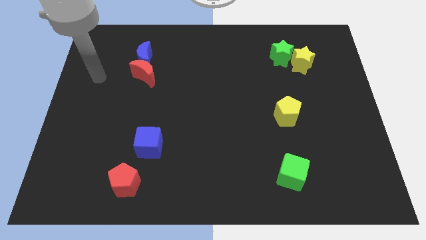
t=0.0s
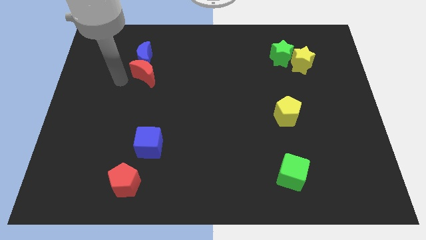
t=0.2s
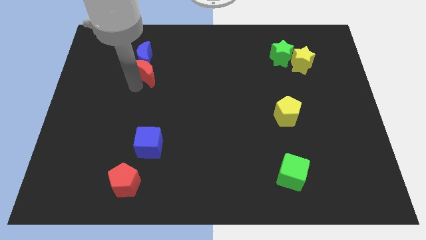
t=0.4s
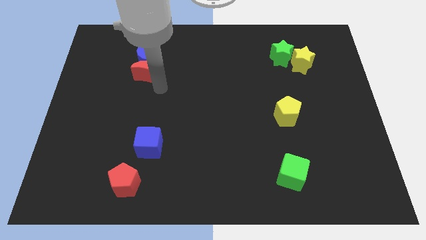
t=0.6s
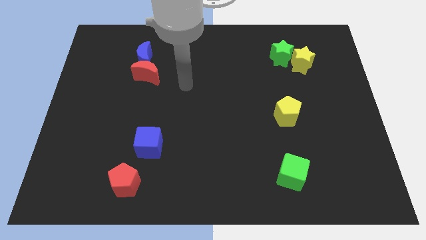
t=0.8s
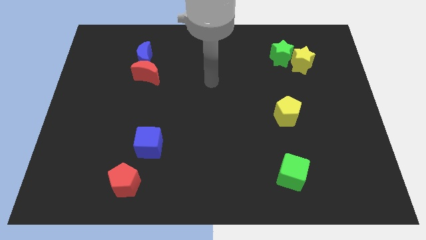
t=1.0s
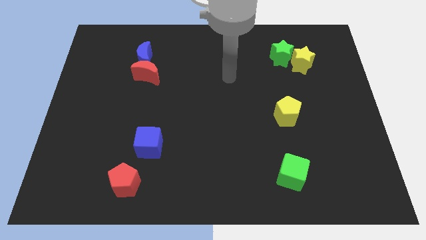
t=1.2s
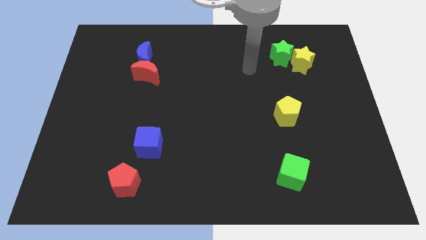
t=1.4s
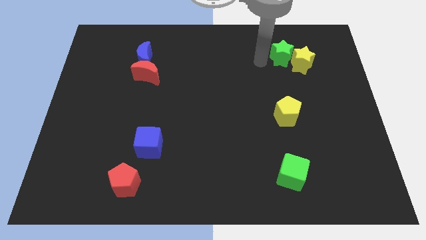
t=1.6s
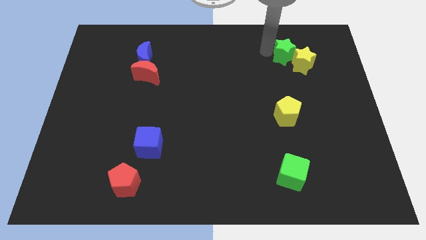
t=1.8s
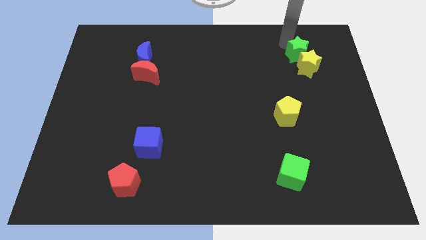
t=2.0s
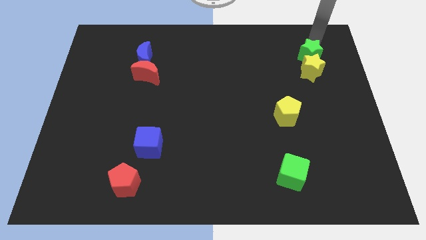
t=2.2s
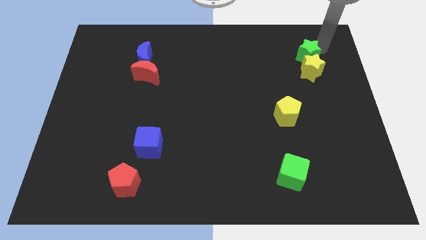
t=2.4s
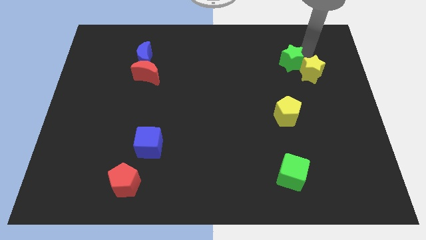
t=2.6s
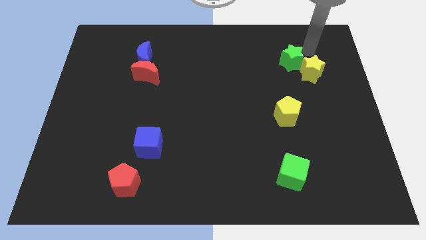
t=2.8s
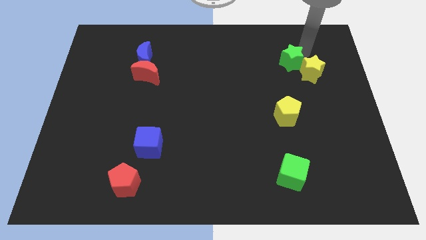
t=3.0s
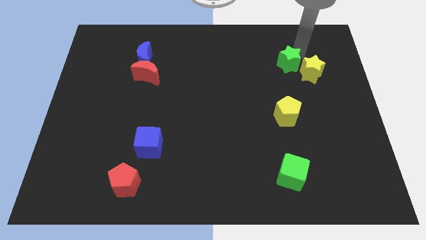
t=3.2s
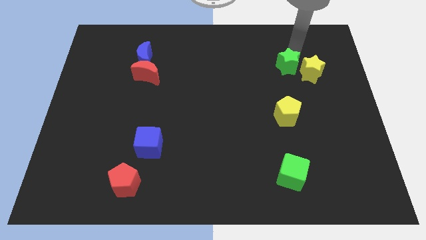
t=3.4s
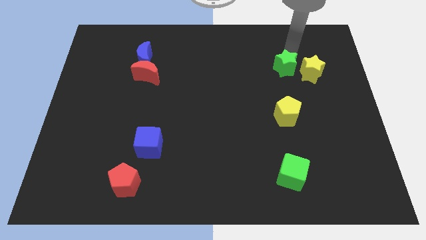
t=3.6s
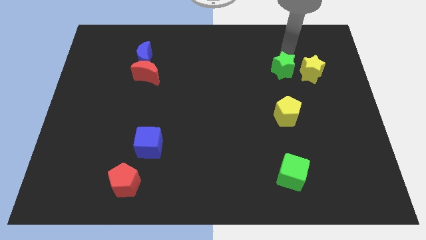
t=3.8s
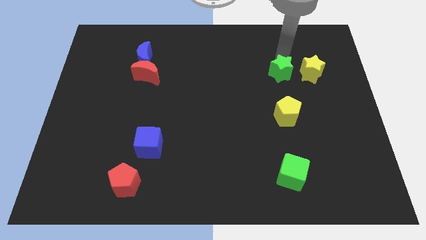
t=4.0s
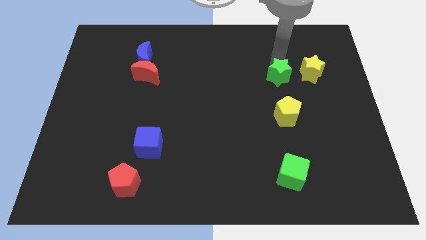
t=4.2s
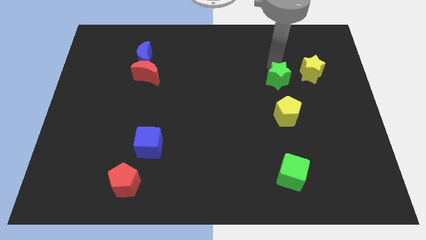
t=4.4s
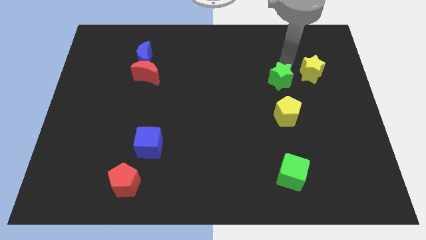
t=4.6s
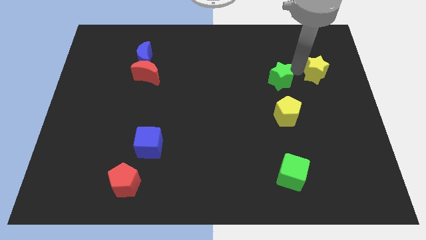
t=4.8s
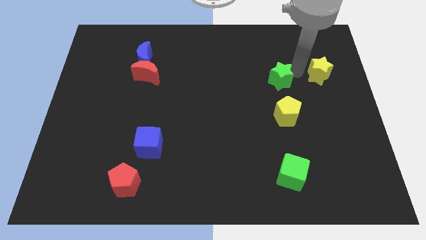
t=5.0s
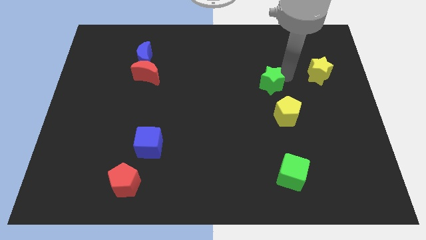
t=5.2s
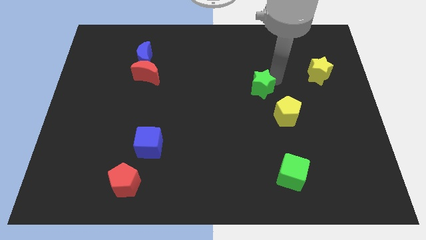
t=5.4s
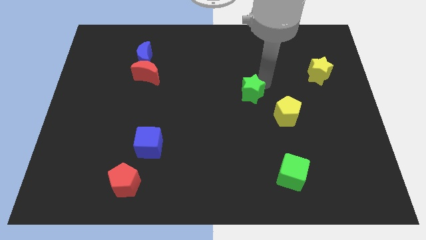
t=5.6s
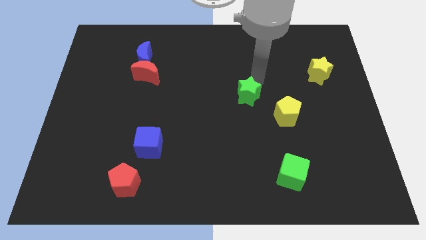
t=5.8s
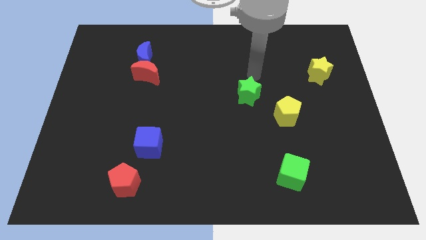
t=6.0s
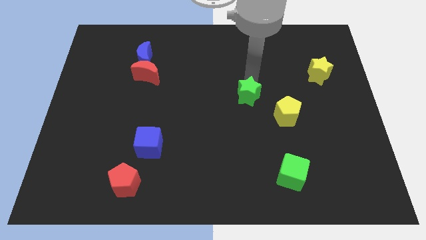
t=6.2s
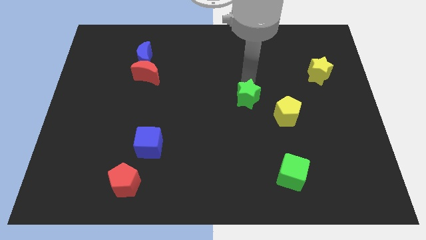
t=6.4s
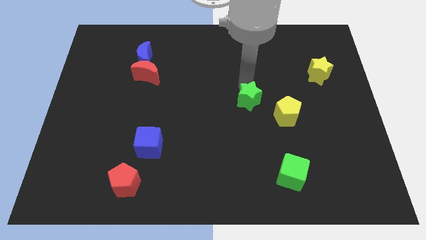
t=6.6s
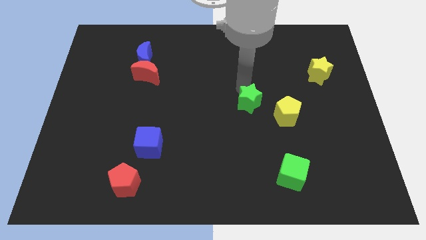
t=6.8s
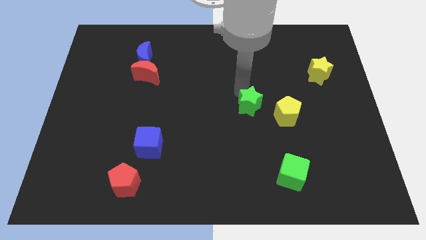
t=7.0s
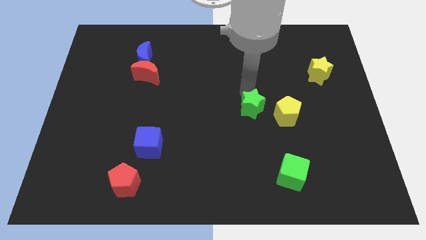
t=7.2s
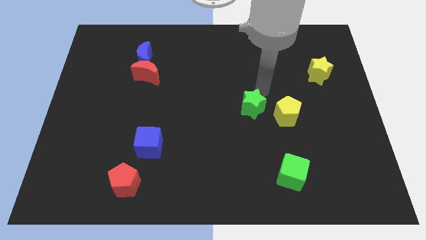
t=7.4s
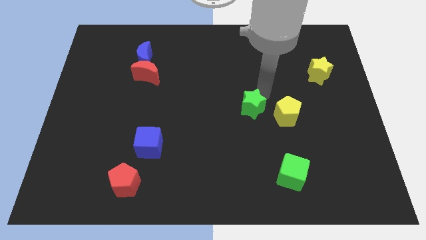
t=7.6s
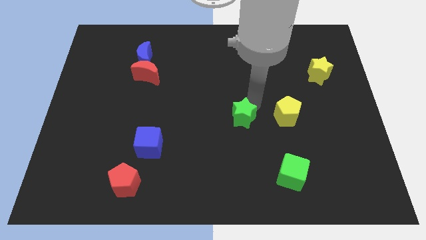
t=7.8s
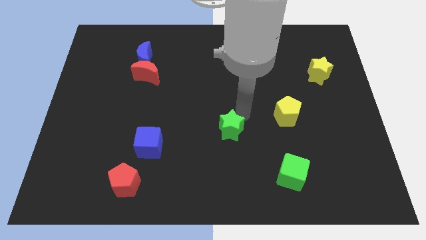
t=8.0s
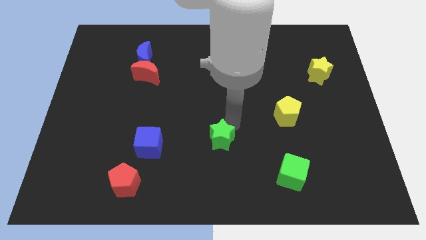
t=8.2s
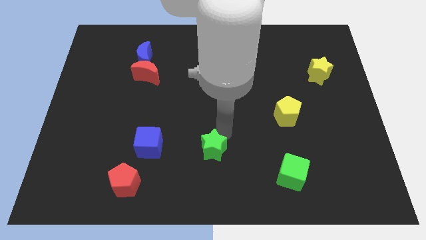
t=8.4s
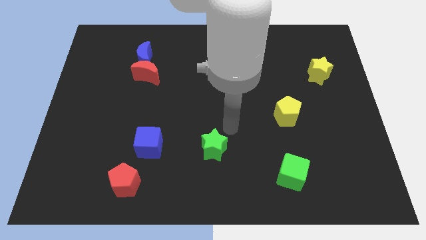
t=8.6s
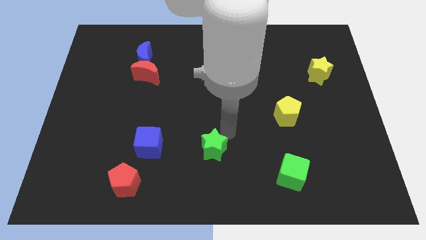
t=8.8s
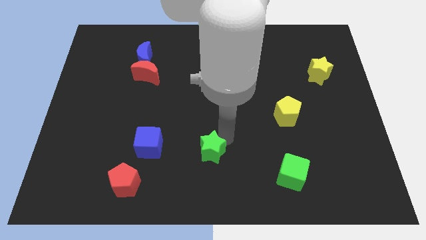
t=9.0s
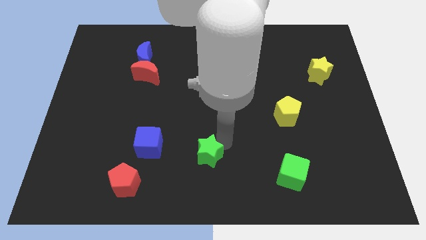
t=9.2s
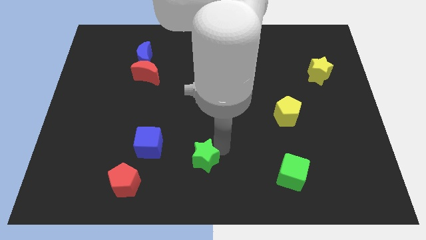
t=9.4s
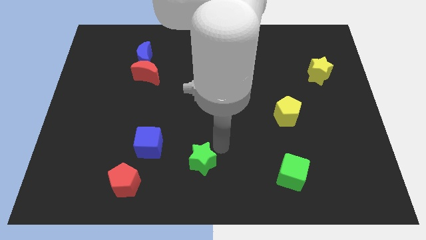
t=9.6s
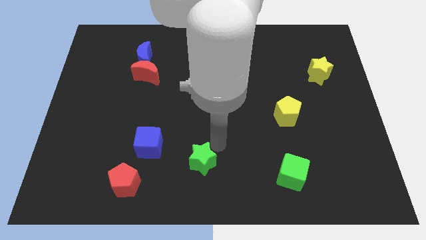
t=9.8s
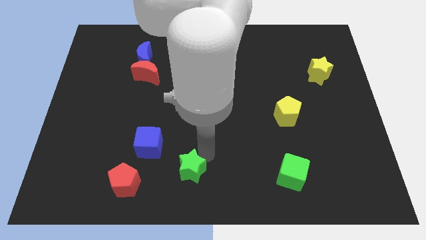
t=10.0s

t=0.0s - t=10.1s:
put the green star to the right side of the red pentagon

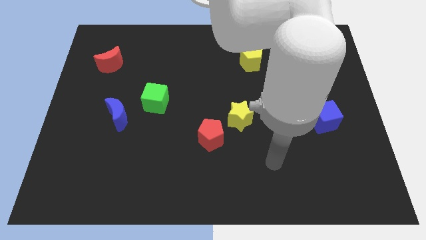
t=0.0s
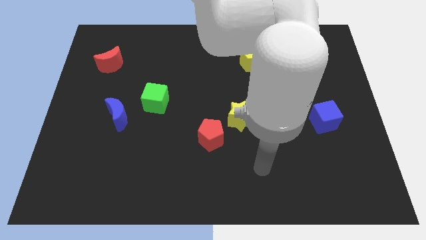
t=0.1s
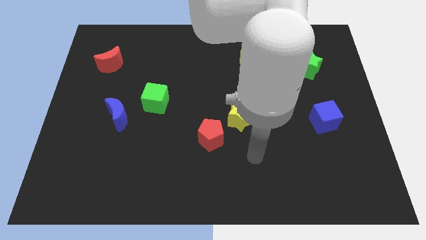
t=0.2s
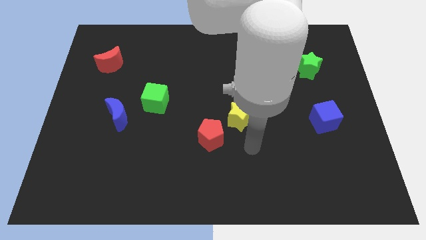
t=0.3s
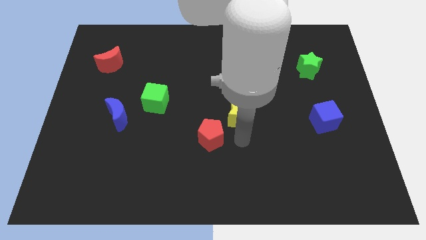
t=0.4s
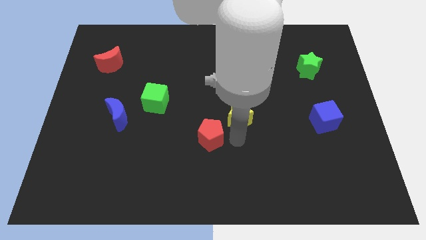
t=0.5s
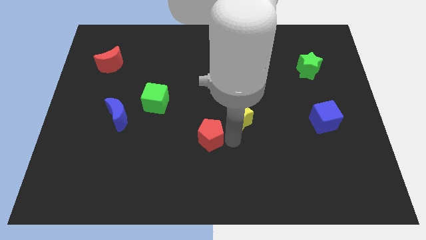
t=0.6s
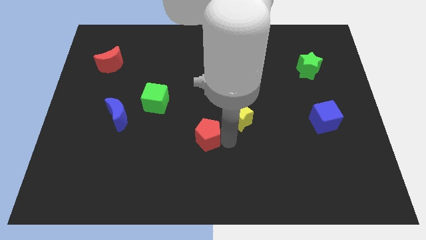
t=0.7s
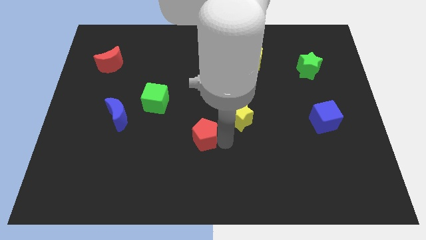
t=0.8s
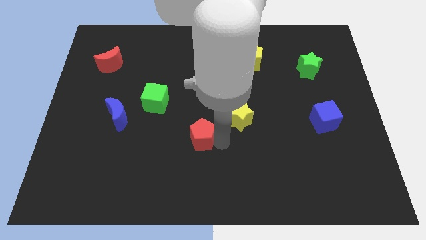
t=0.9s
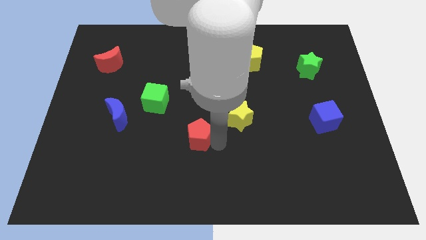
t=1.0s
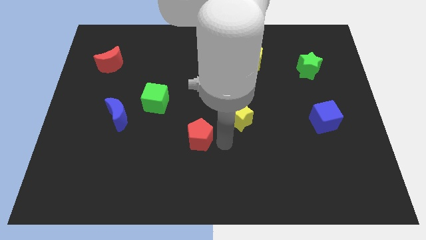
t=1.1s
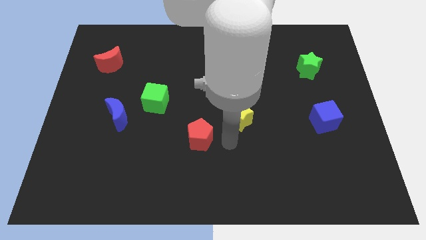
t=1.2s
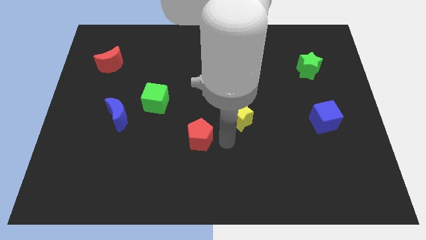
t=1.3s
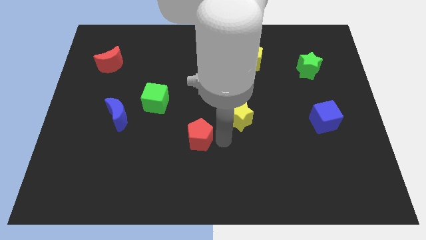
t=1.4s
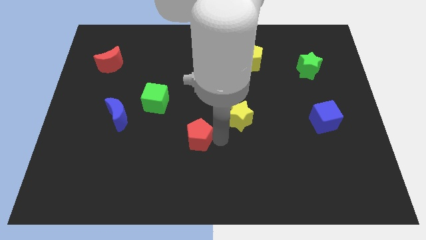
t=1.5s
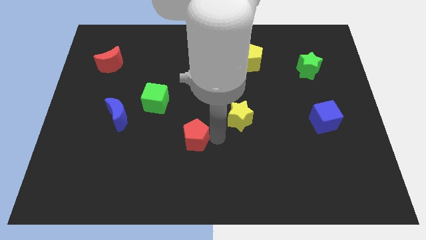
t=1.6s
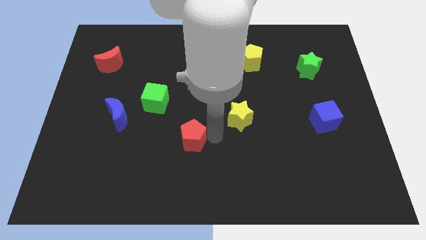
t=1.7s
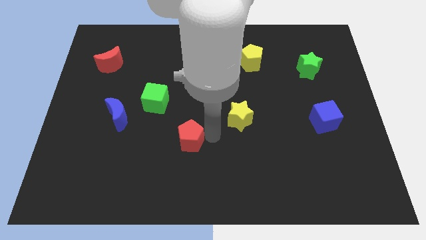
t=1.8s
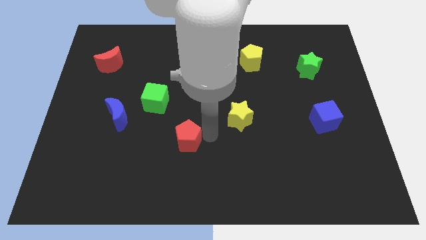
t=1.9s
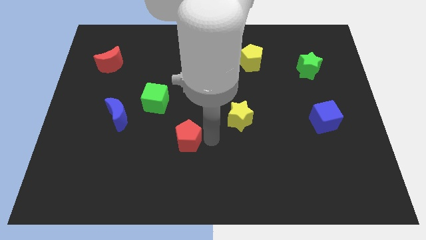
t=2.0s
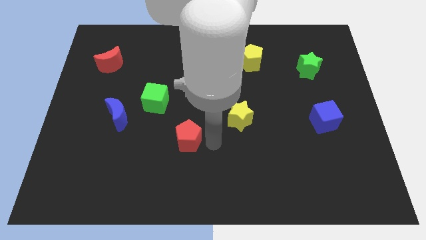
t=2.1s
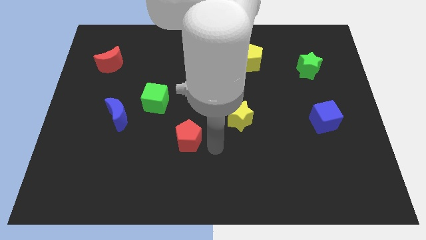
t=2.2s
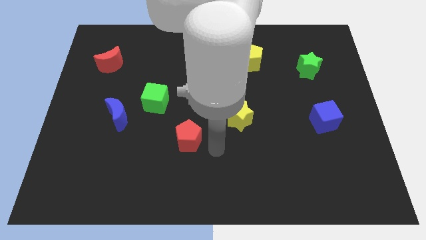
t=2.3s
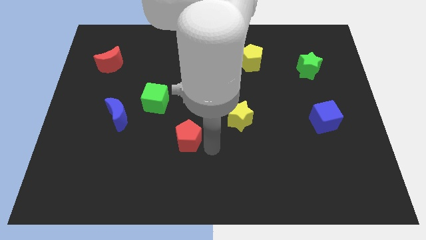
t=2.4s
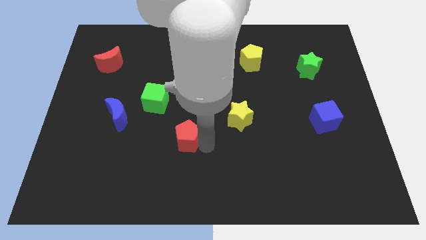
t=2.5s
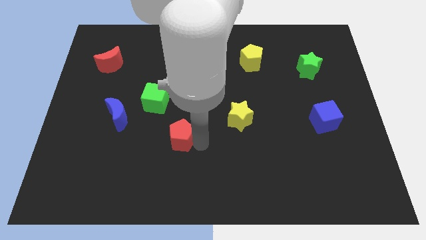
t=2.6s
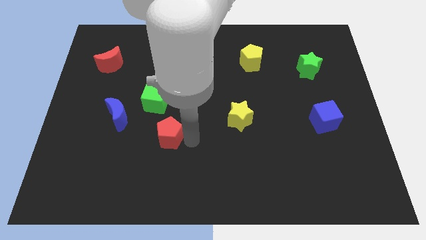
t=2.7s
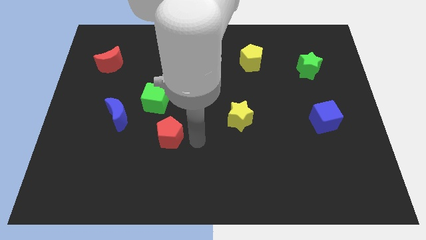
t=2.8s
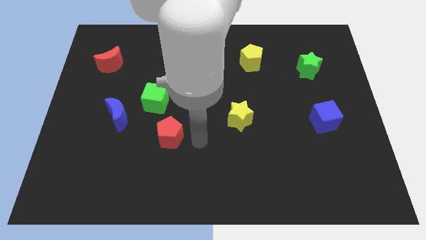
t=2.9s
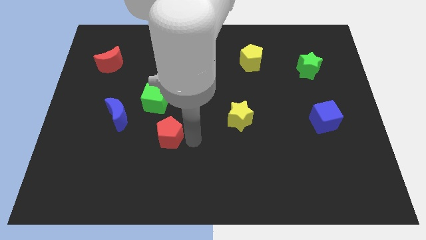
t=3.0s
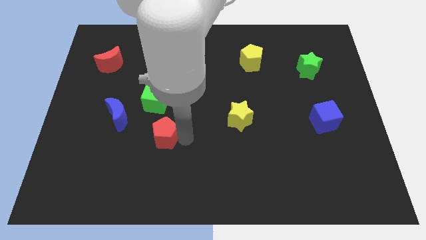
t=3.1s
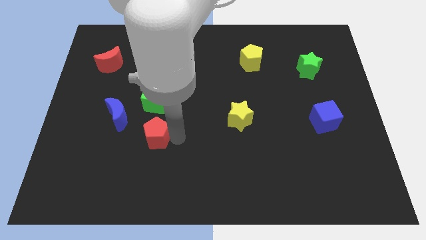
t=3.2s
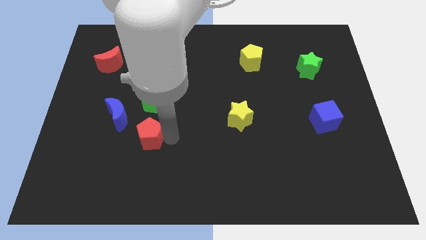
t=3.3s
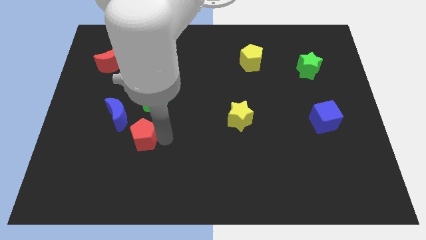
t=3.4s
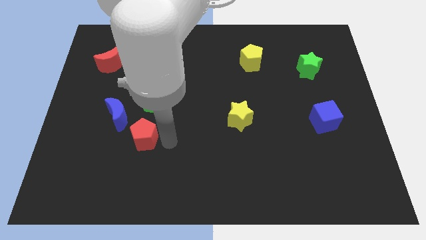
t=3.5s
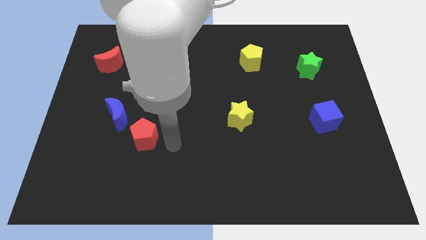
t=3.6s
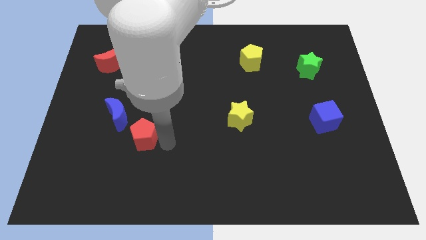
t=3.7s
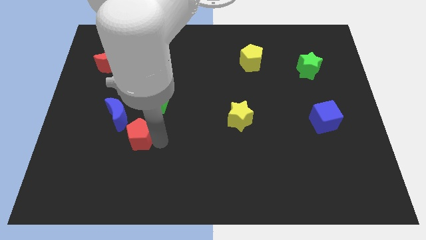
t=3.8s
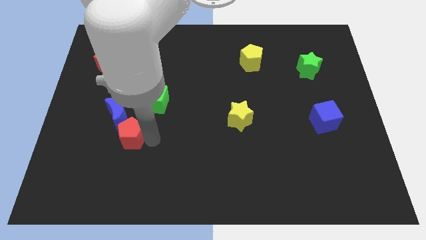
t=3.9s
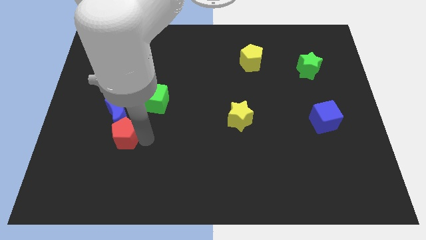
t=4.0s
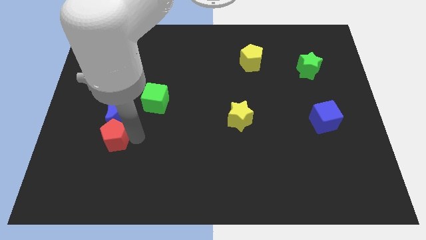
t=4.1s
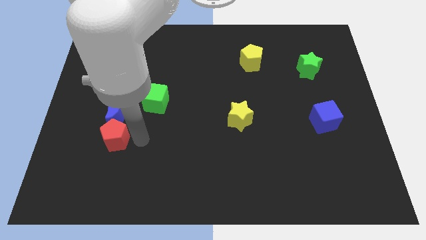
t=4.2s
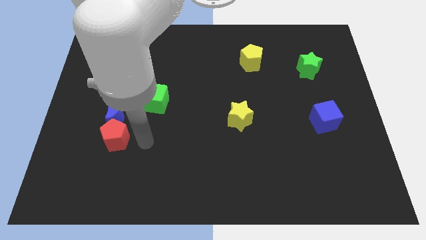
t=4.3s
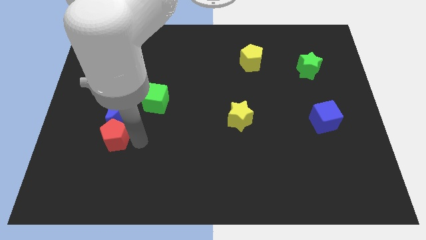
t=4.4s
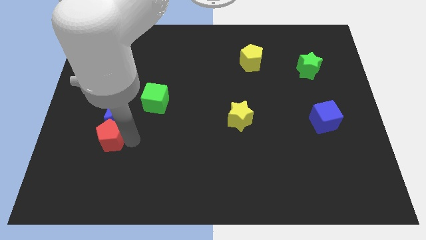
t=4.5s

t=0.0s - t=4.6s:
slide the red pentagon diagonally down and to the left of the blue moon
